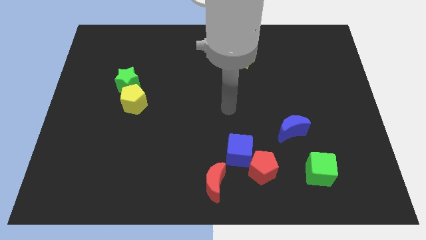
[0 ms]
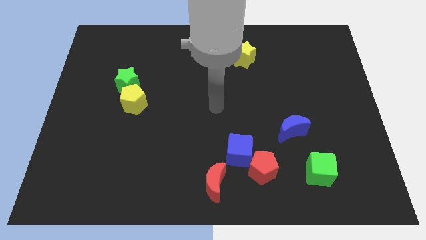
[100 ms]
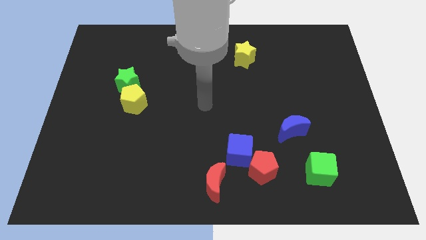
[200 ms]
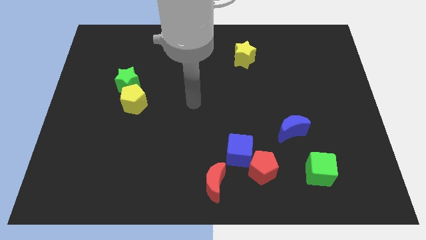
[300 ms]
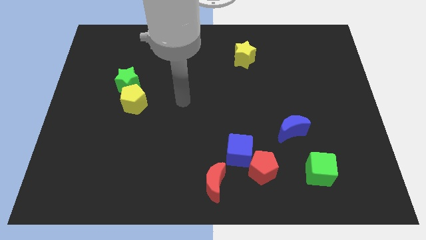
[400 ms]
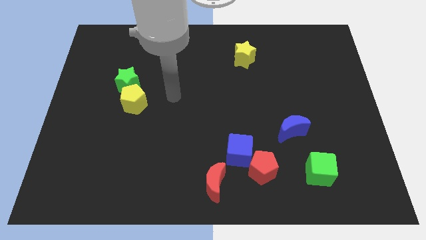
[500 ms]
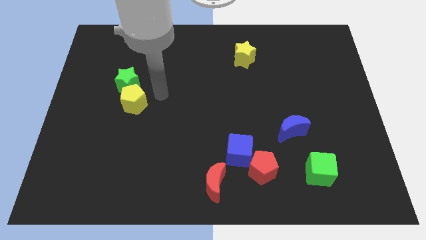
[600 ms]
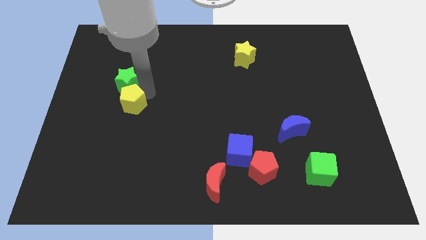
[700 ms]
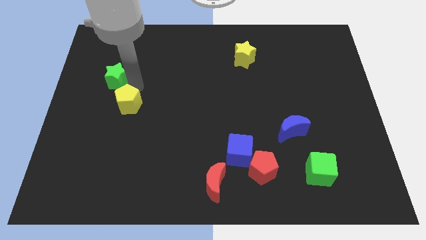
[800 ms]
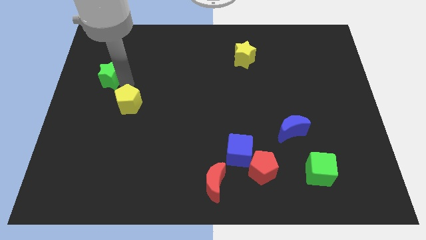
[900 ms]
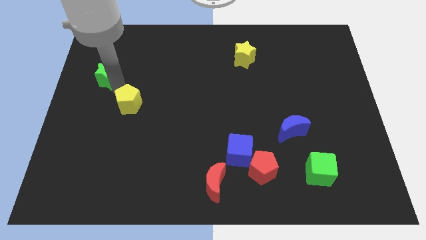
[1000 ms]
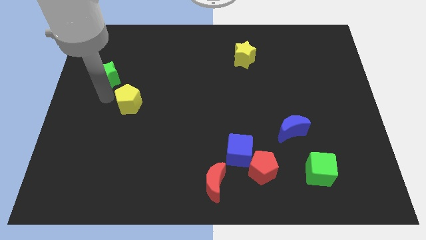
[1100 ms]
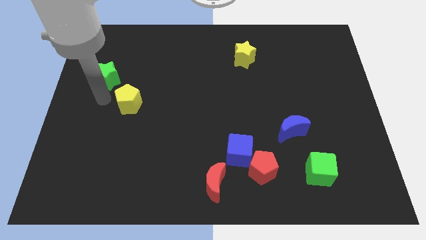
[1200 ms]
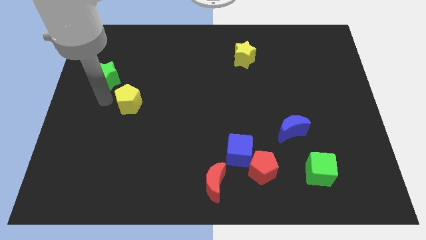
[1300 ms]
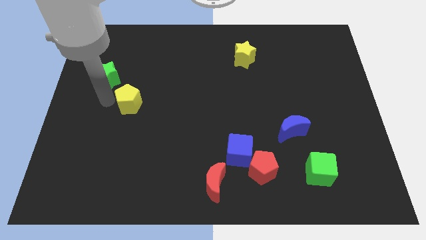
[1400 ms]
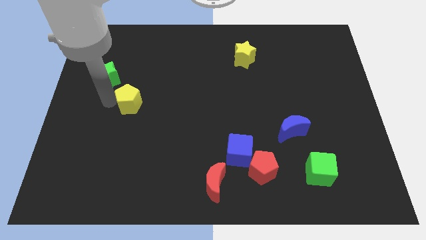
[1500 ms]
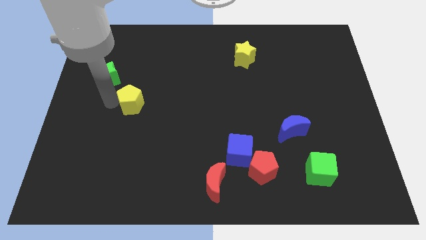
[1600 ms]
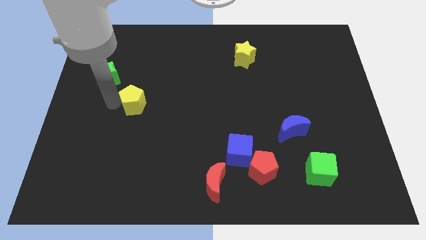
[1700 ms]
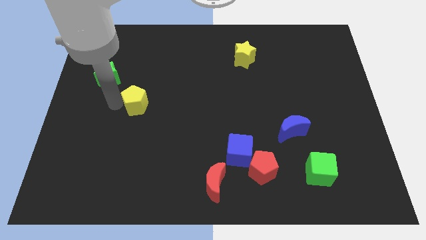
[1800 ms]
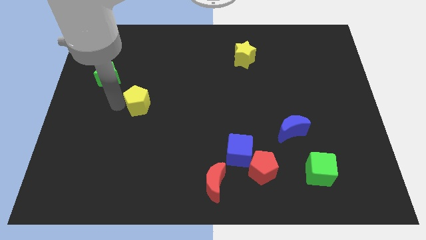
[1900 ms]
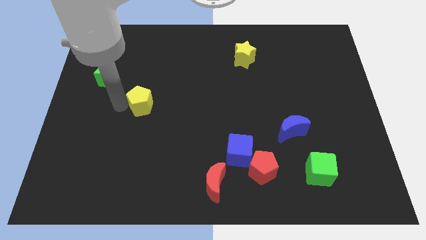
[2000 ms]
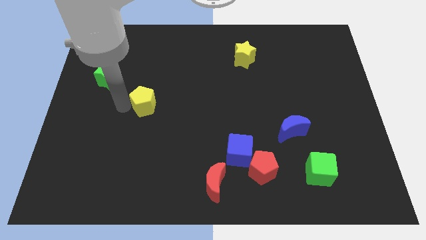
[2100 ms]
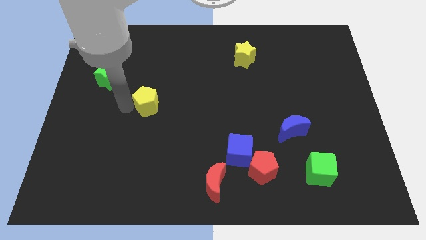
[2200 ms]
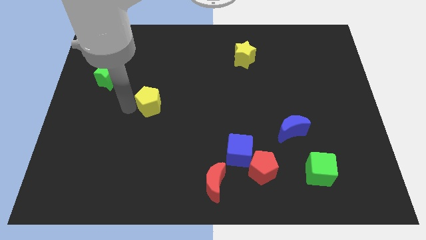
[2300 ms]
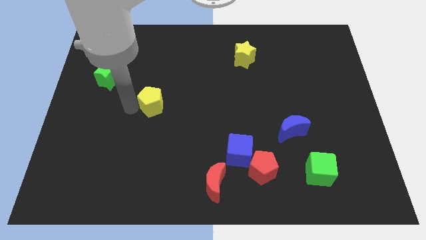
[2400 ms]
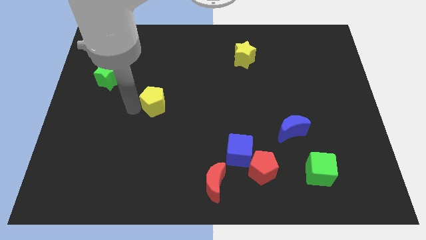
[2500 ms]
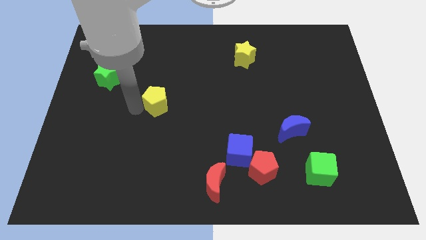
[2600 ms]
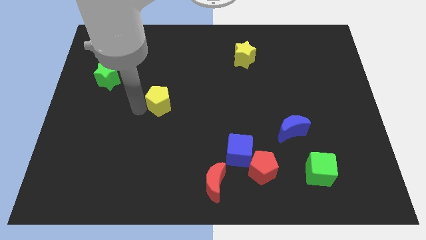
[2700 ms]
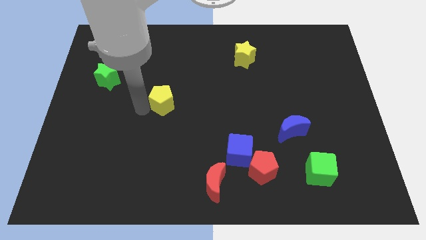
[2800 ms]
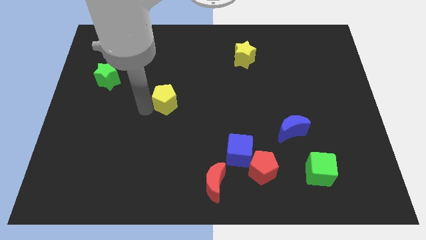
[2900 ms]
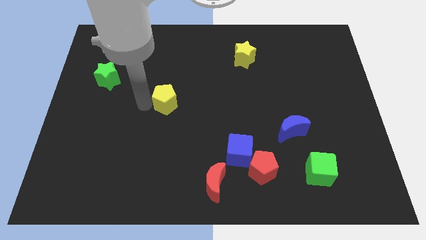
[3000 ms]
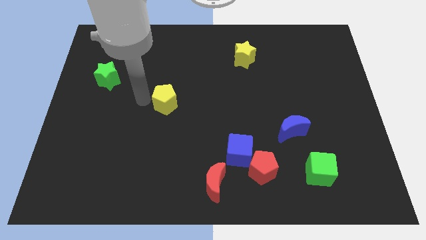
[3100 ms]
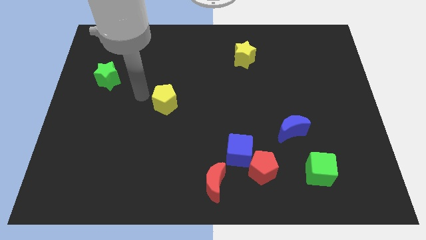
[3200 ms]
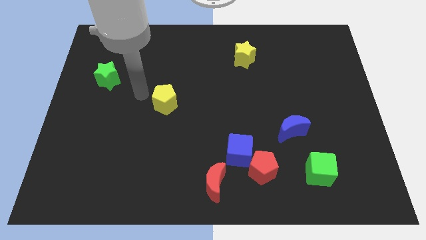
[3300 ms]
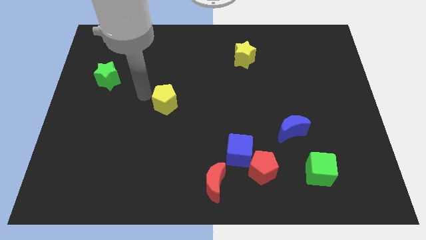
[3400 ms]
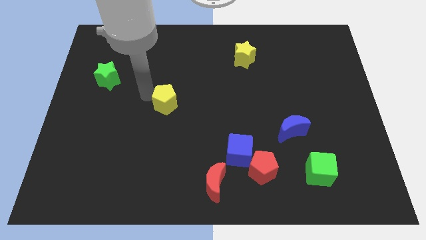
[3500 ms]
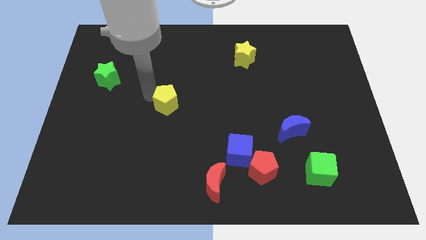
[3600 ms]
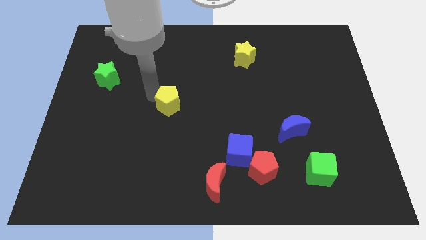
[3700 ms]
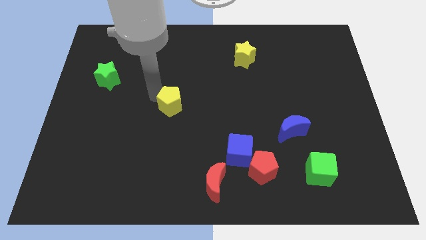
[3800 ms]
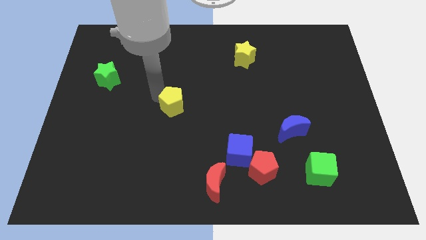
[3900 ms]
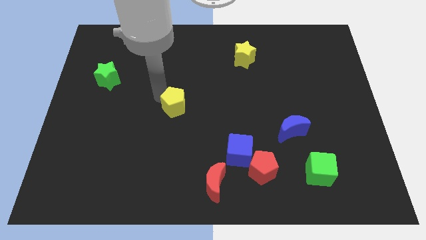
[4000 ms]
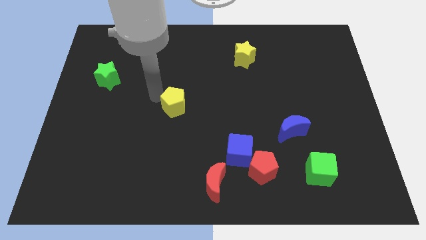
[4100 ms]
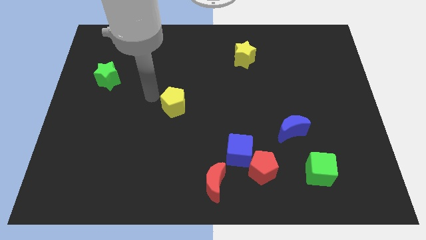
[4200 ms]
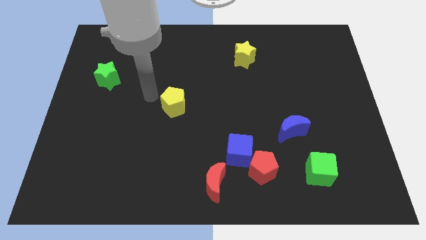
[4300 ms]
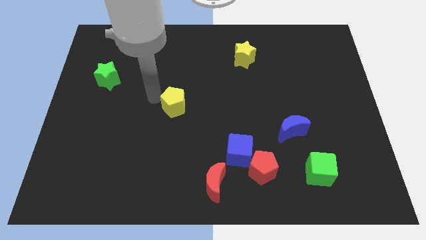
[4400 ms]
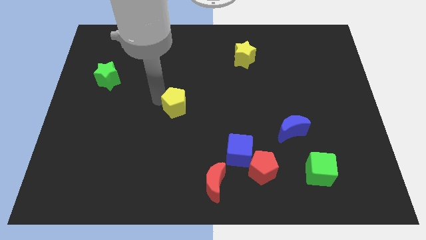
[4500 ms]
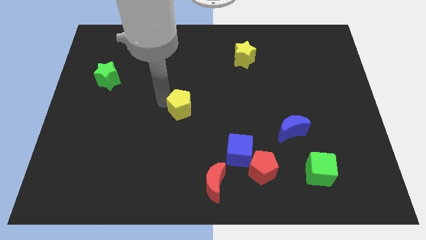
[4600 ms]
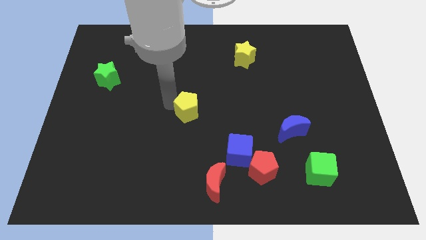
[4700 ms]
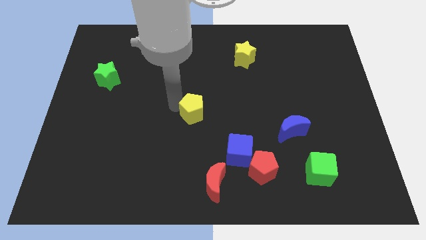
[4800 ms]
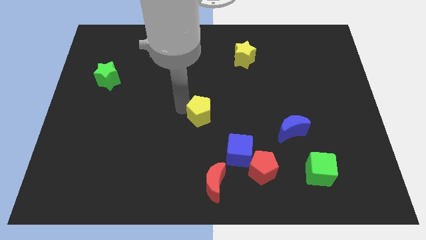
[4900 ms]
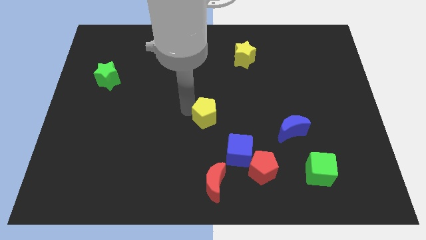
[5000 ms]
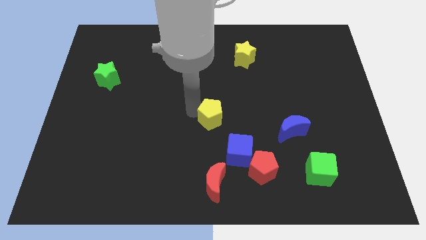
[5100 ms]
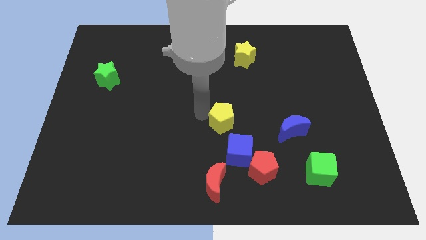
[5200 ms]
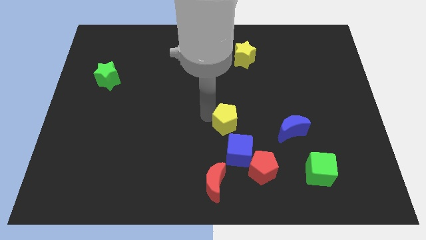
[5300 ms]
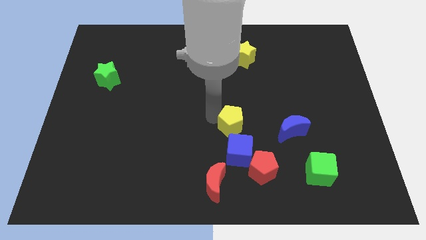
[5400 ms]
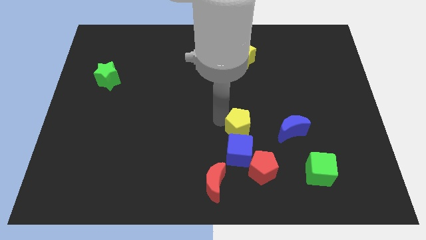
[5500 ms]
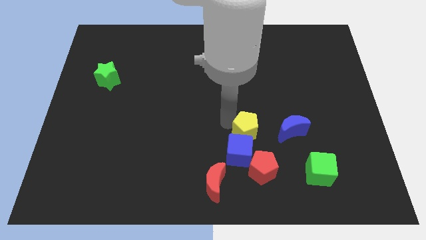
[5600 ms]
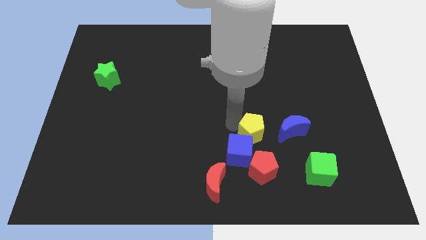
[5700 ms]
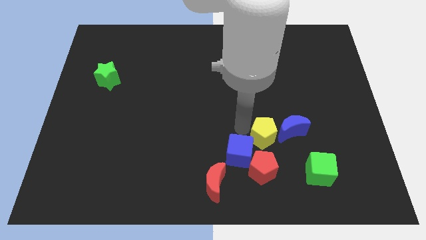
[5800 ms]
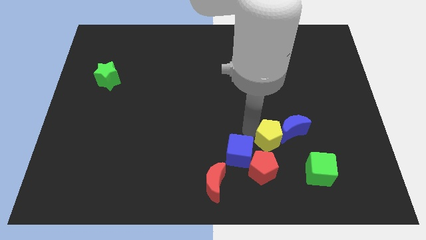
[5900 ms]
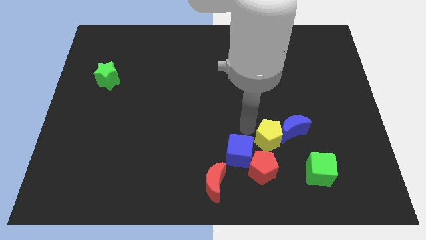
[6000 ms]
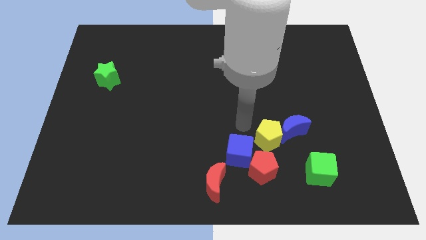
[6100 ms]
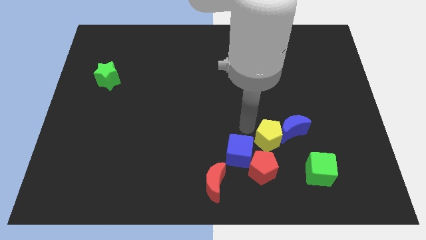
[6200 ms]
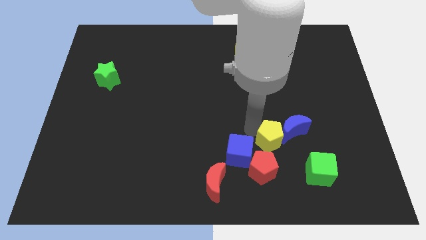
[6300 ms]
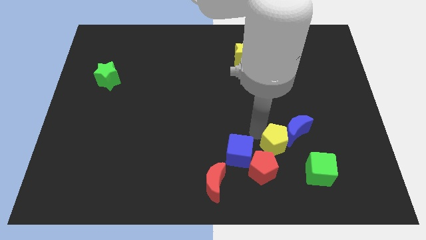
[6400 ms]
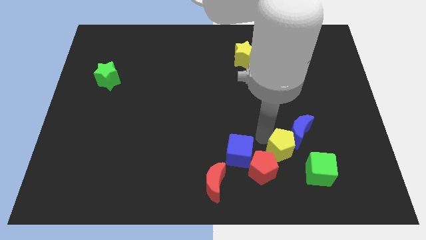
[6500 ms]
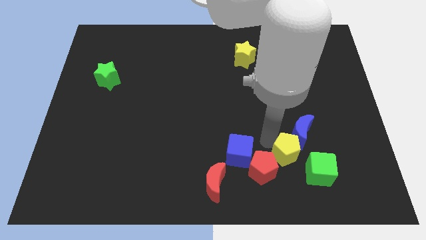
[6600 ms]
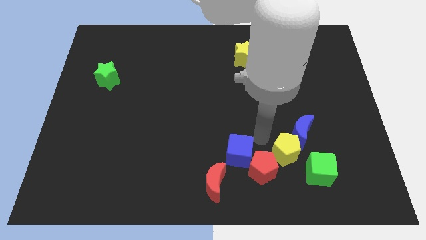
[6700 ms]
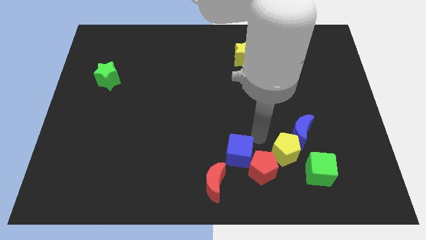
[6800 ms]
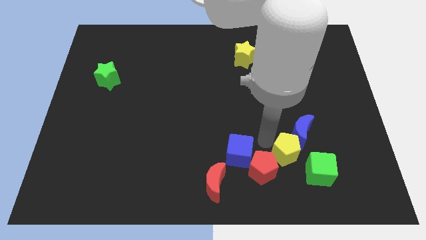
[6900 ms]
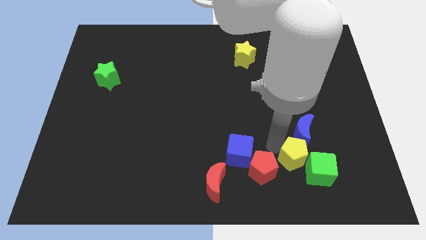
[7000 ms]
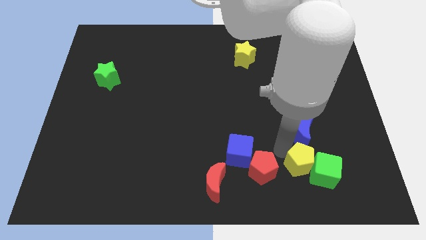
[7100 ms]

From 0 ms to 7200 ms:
slide the yellow pentagon close to the green cube
